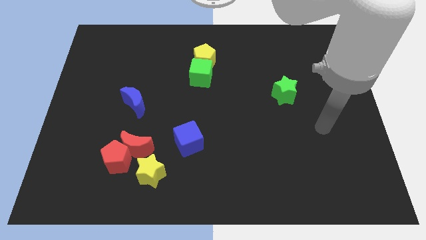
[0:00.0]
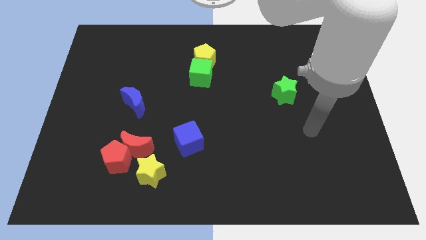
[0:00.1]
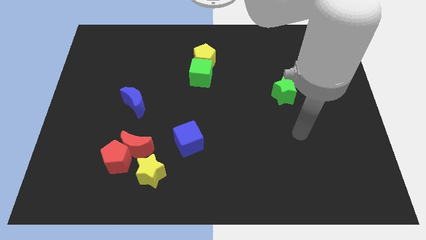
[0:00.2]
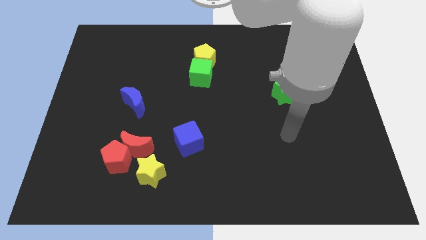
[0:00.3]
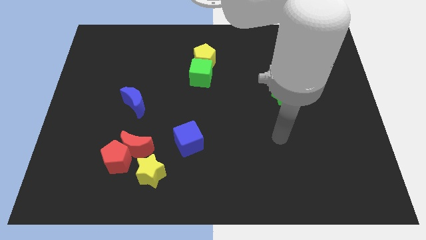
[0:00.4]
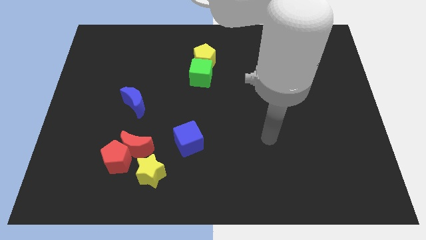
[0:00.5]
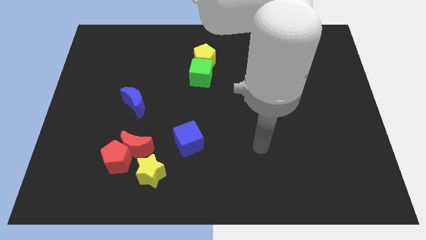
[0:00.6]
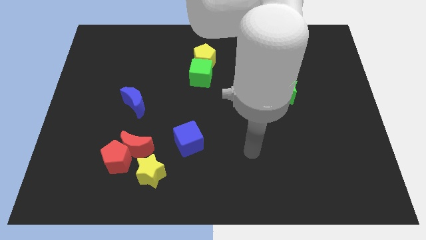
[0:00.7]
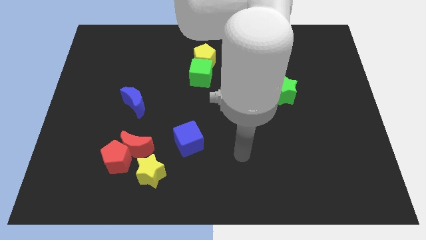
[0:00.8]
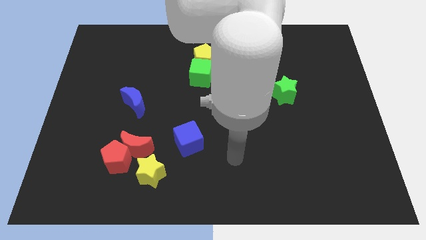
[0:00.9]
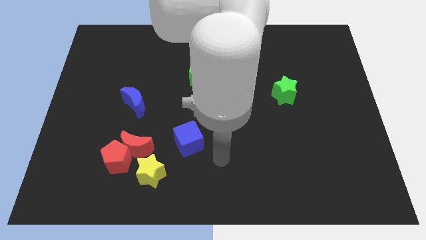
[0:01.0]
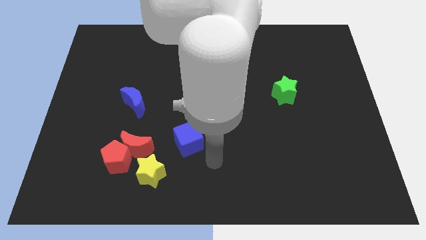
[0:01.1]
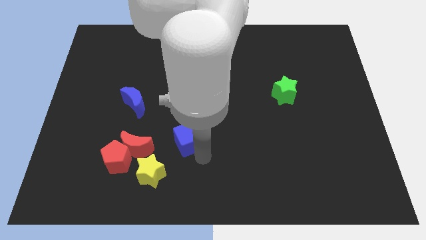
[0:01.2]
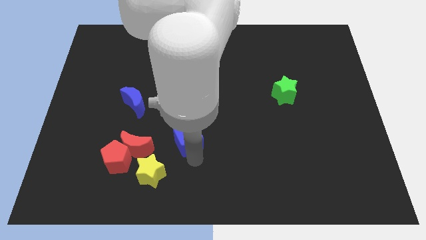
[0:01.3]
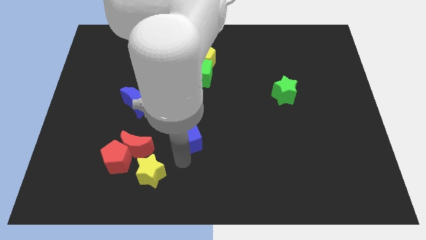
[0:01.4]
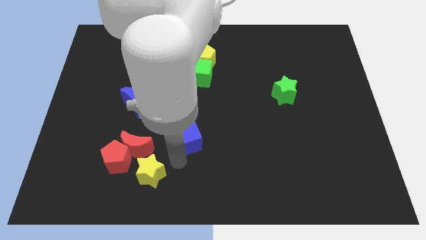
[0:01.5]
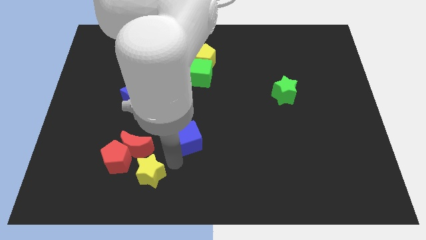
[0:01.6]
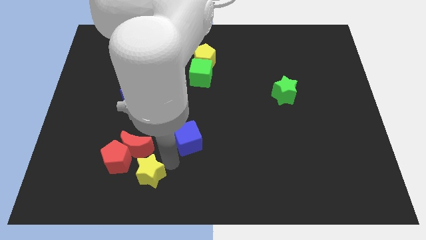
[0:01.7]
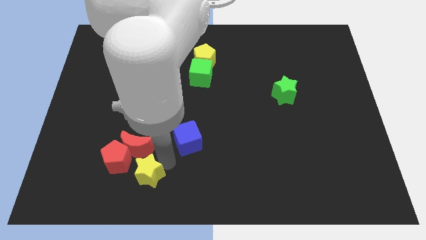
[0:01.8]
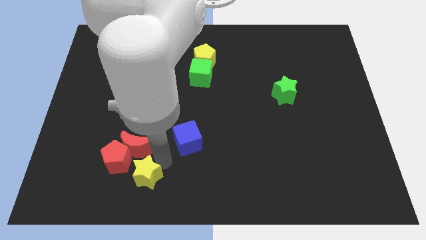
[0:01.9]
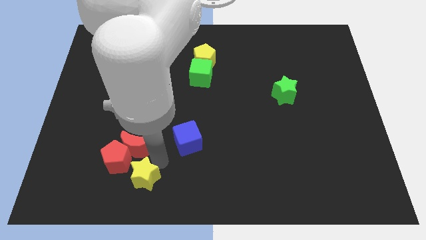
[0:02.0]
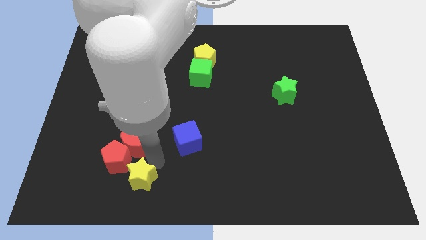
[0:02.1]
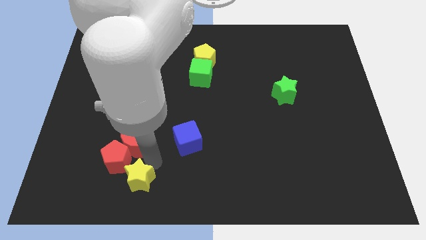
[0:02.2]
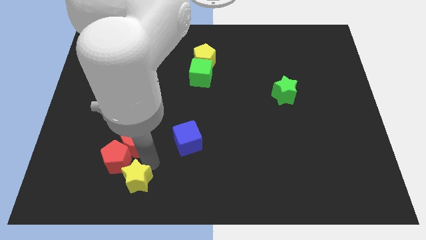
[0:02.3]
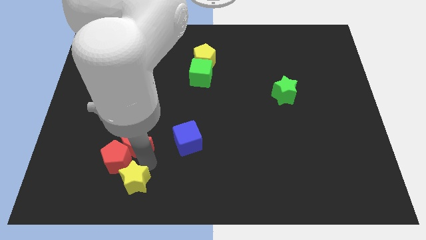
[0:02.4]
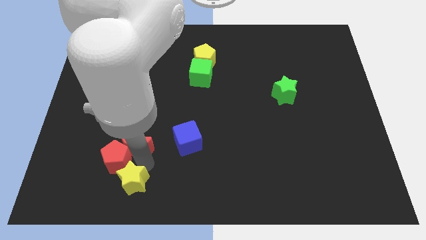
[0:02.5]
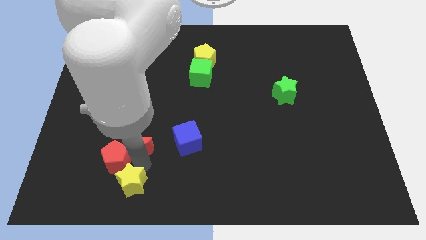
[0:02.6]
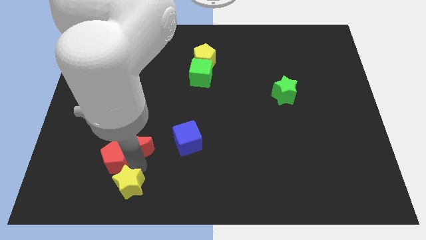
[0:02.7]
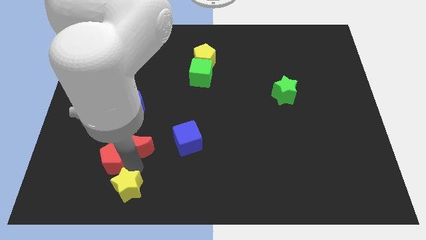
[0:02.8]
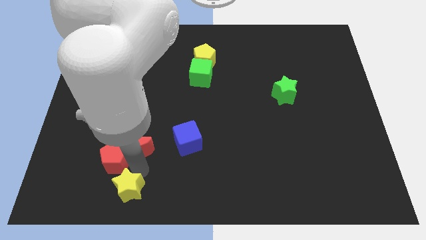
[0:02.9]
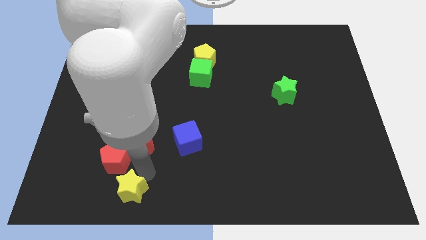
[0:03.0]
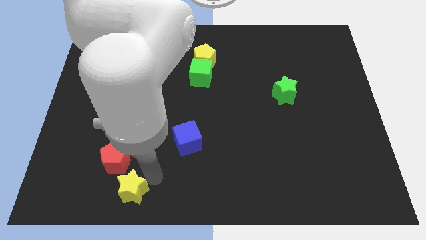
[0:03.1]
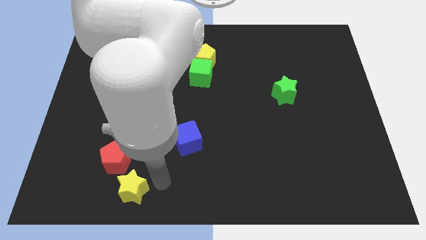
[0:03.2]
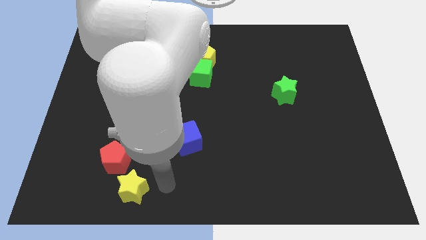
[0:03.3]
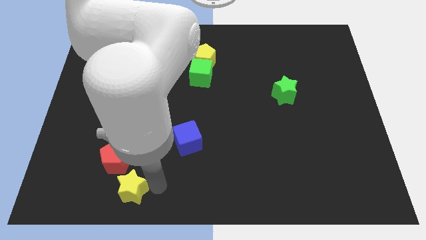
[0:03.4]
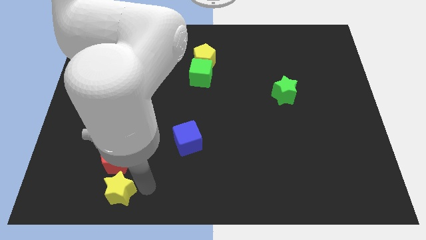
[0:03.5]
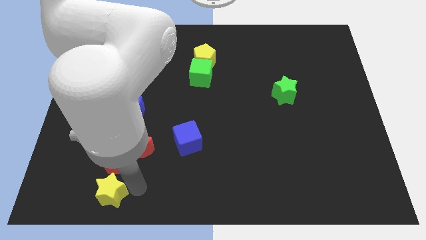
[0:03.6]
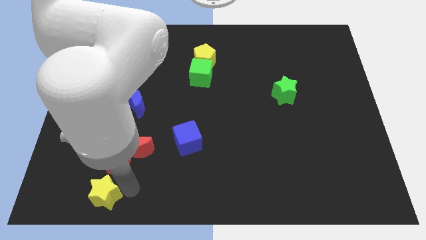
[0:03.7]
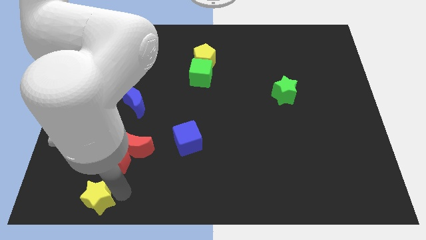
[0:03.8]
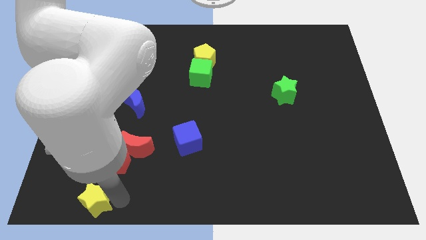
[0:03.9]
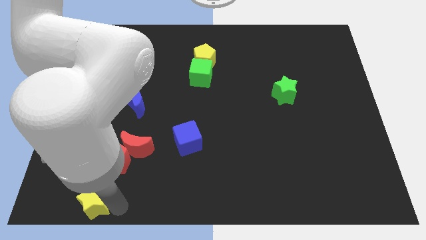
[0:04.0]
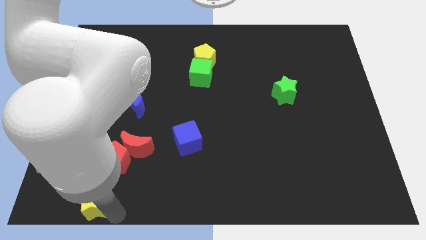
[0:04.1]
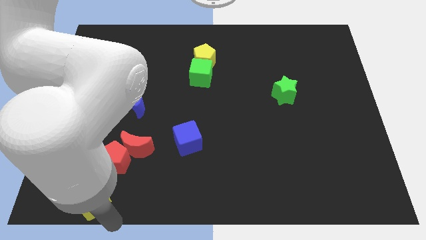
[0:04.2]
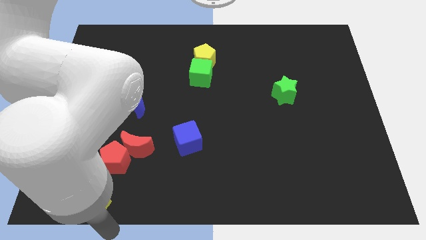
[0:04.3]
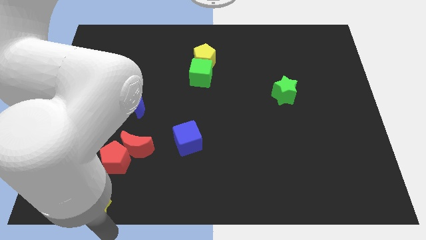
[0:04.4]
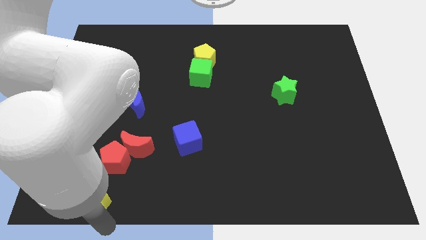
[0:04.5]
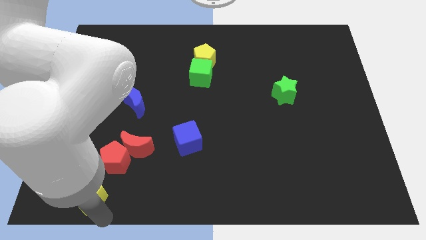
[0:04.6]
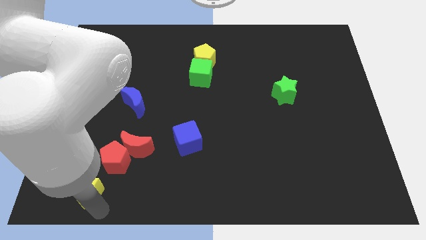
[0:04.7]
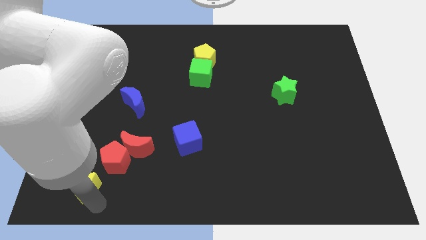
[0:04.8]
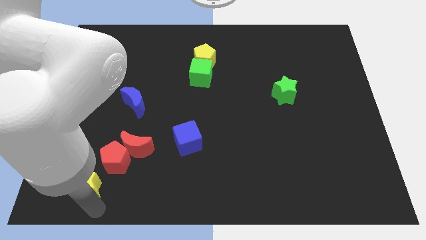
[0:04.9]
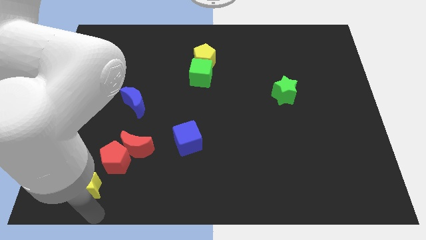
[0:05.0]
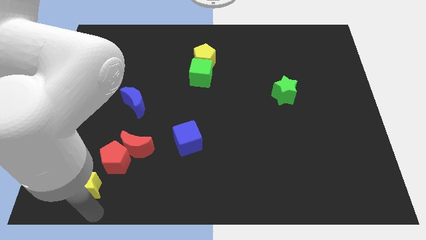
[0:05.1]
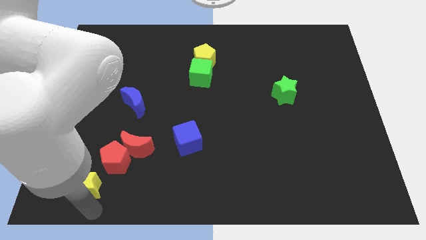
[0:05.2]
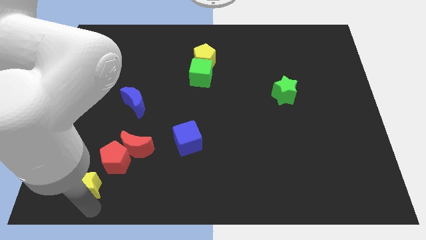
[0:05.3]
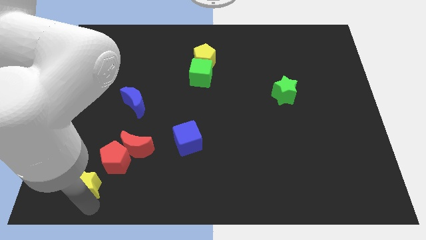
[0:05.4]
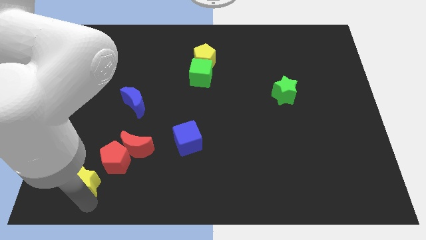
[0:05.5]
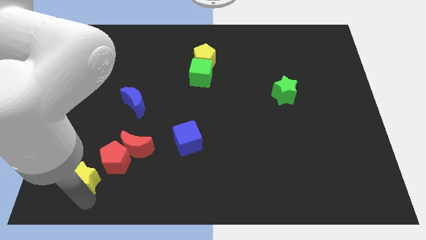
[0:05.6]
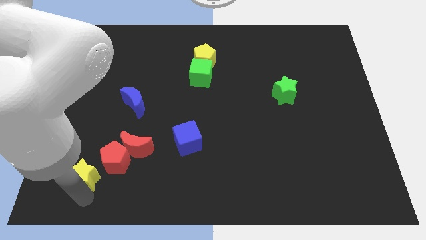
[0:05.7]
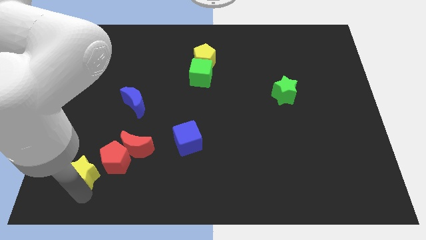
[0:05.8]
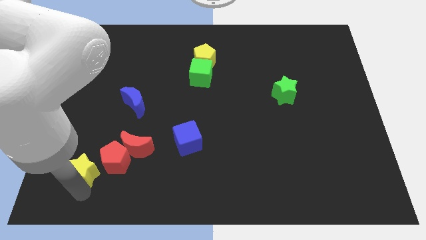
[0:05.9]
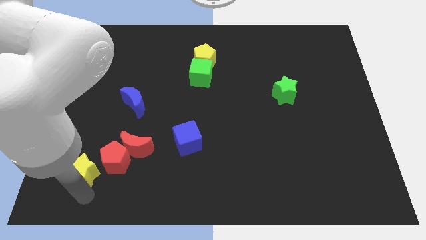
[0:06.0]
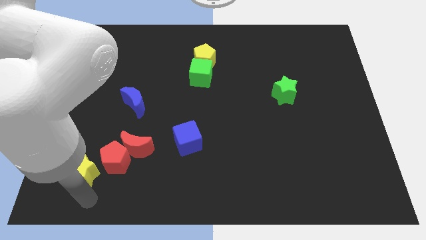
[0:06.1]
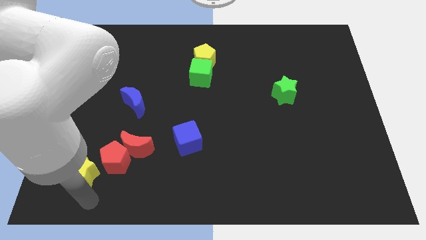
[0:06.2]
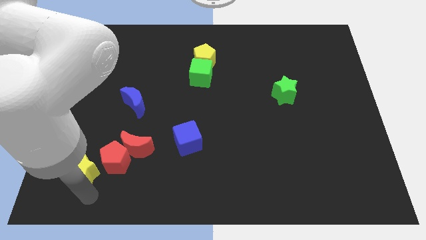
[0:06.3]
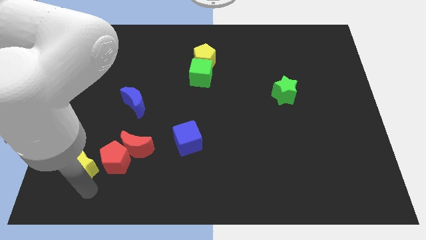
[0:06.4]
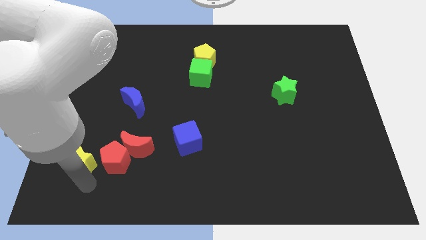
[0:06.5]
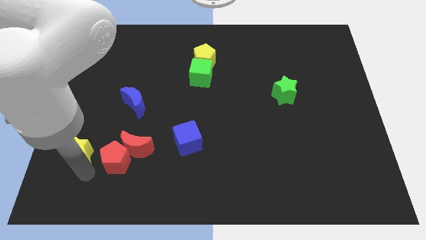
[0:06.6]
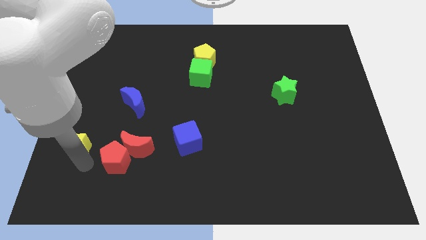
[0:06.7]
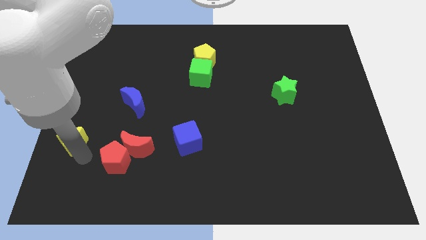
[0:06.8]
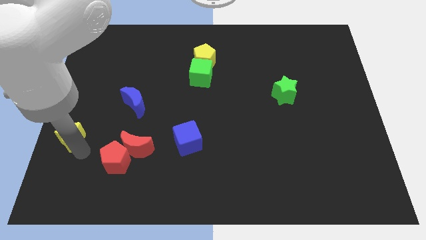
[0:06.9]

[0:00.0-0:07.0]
move the yellow star to the left side
